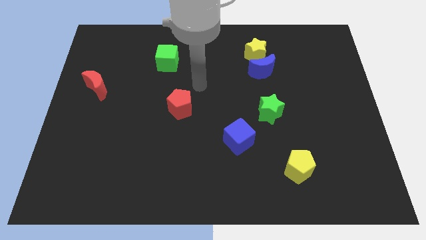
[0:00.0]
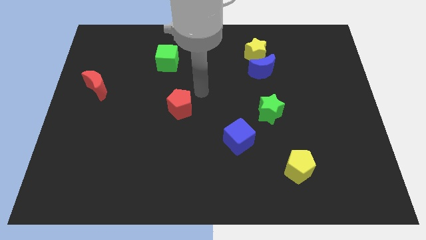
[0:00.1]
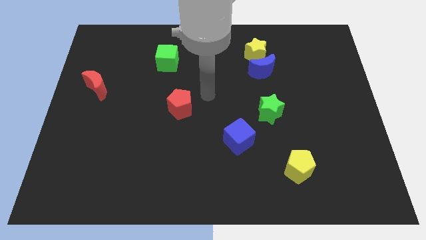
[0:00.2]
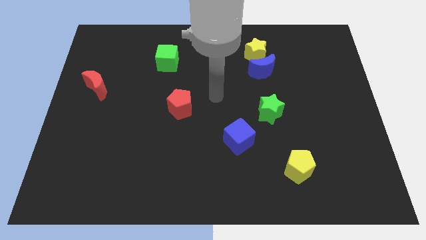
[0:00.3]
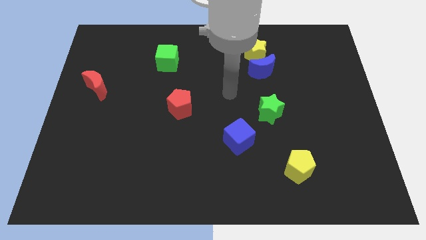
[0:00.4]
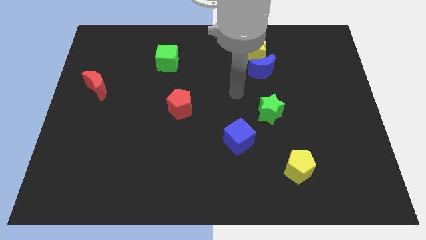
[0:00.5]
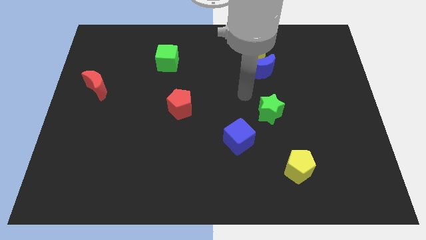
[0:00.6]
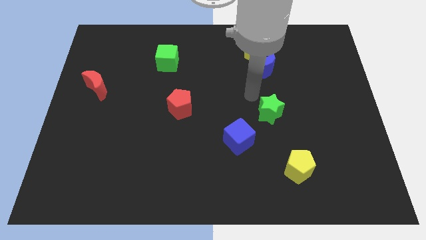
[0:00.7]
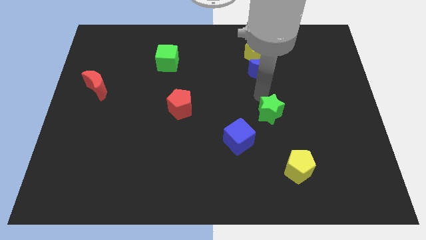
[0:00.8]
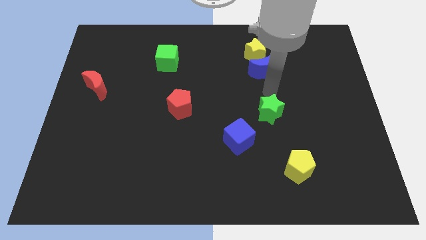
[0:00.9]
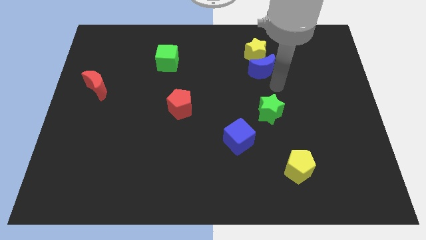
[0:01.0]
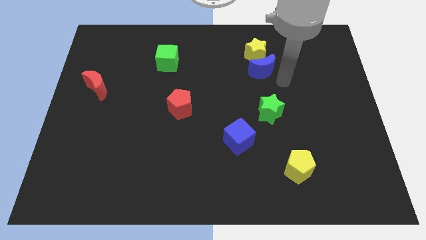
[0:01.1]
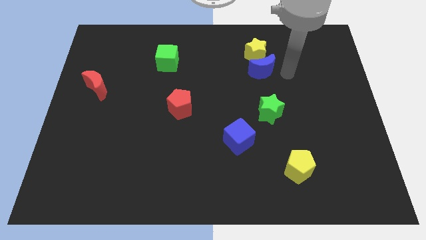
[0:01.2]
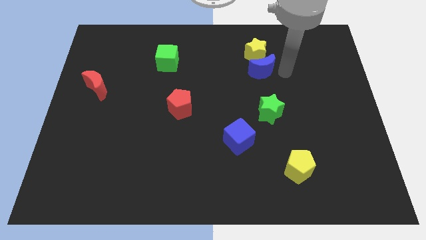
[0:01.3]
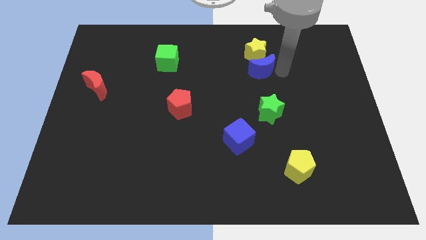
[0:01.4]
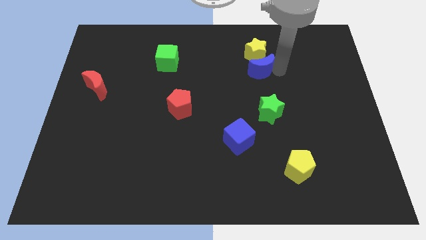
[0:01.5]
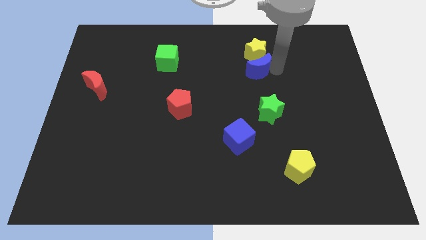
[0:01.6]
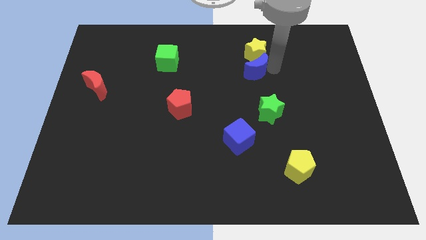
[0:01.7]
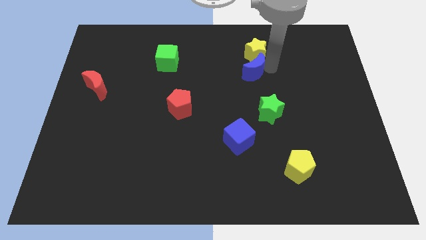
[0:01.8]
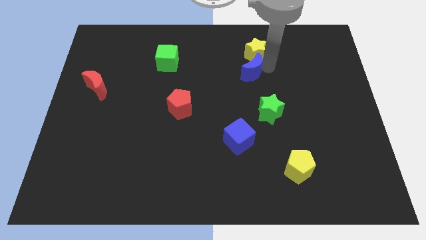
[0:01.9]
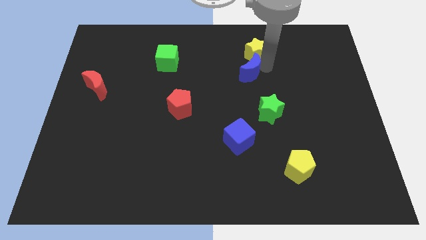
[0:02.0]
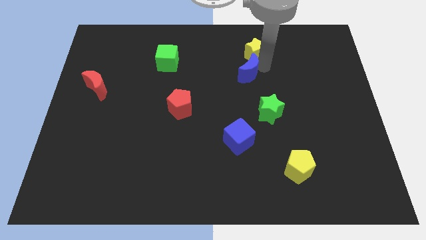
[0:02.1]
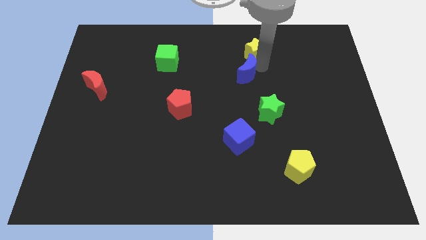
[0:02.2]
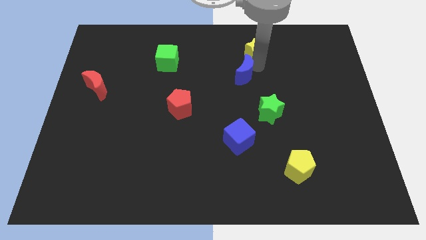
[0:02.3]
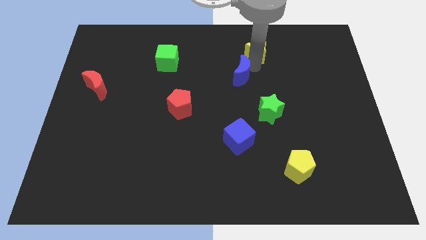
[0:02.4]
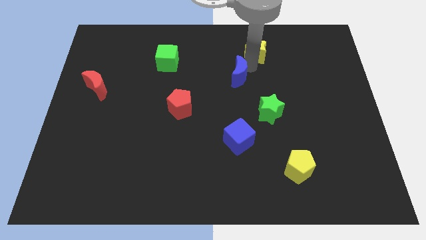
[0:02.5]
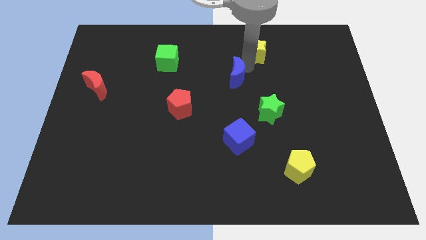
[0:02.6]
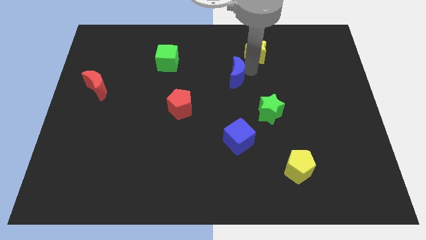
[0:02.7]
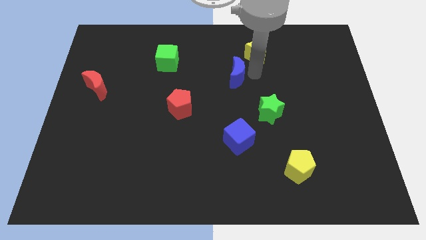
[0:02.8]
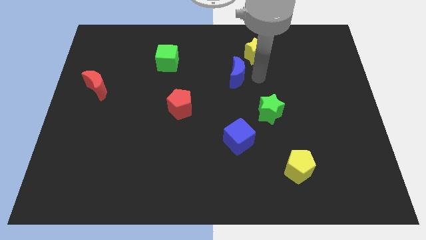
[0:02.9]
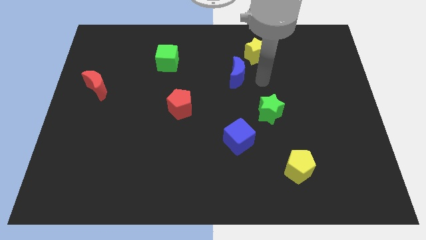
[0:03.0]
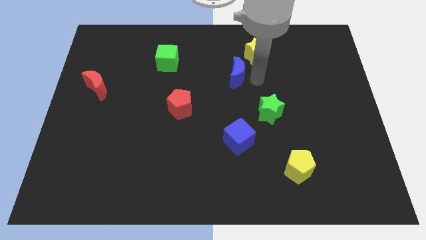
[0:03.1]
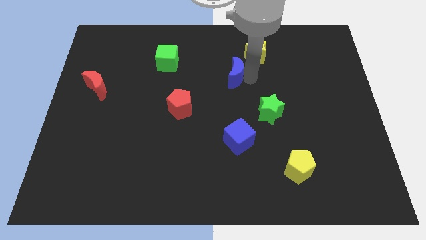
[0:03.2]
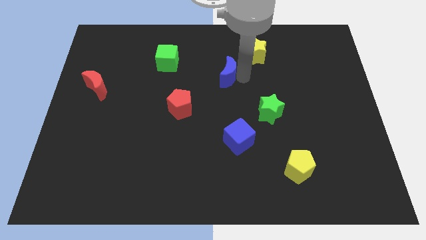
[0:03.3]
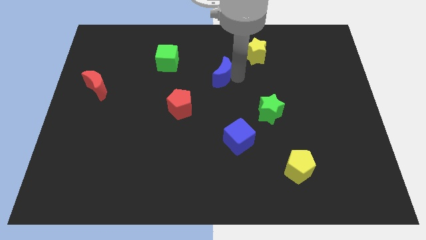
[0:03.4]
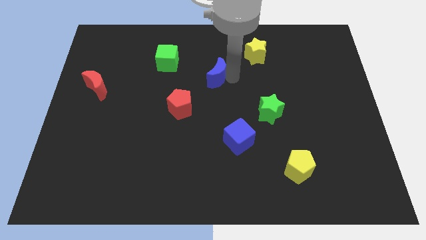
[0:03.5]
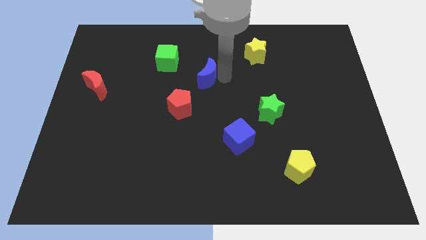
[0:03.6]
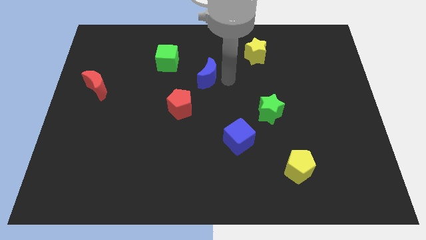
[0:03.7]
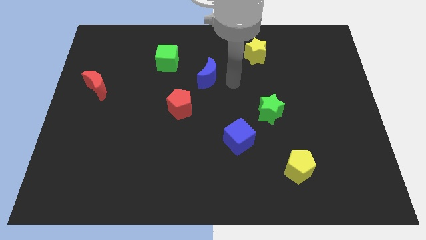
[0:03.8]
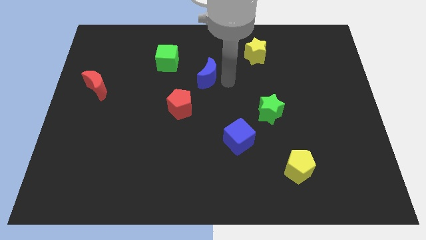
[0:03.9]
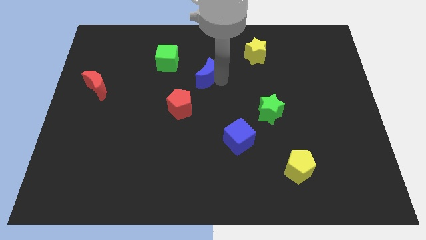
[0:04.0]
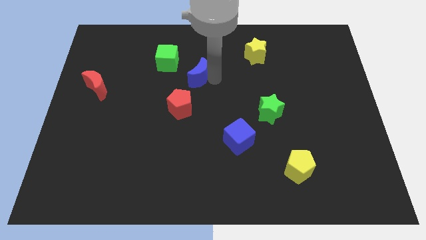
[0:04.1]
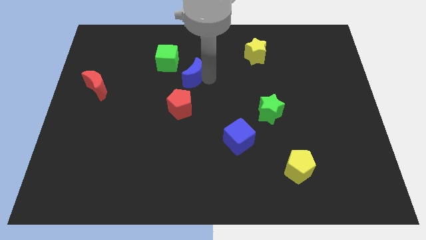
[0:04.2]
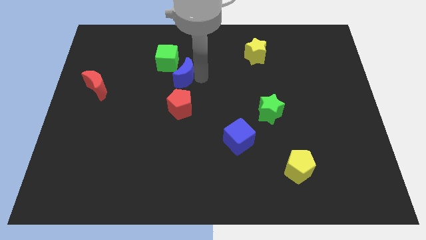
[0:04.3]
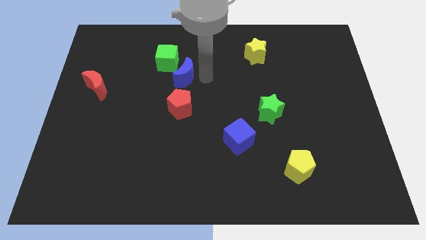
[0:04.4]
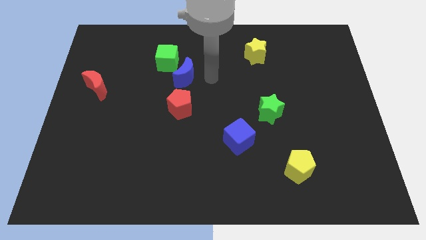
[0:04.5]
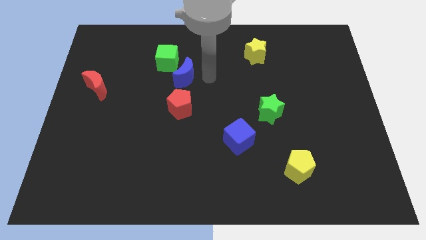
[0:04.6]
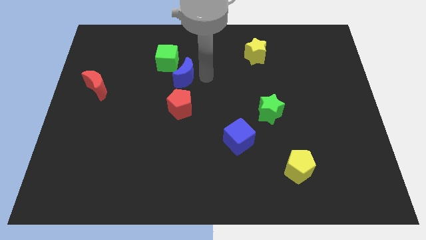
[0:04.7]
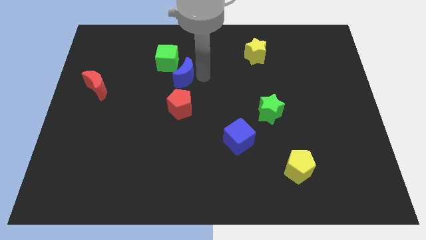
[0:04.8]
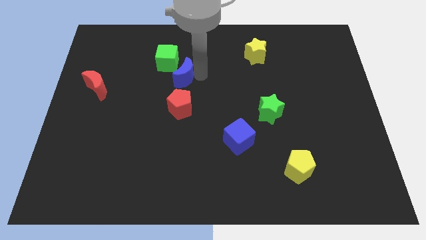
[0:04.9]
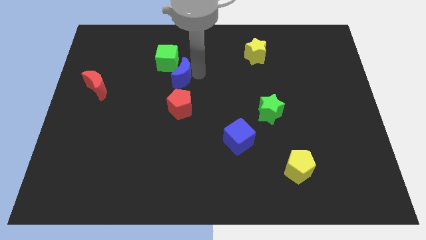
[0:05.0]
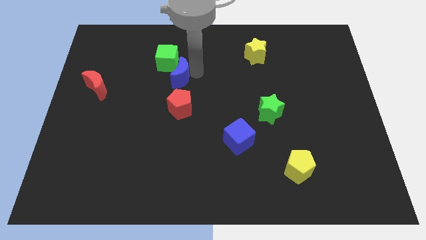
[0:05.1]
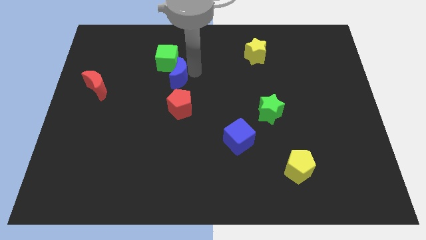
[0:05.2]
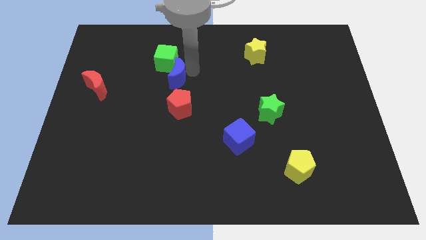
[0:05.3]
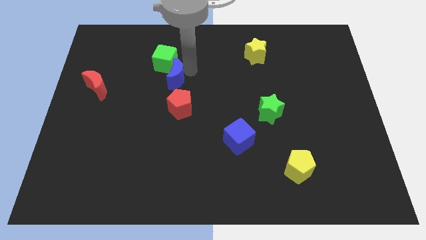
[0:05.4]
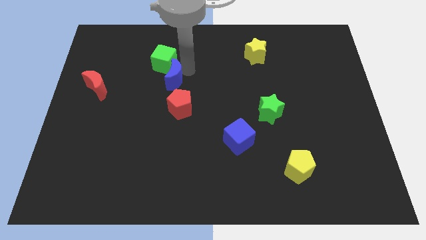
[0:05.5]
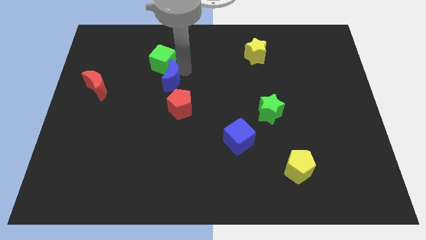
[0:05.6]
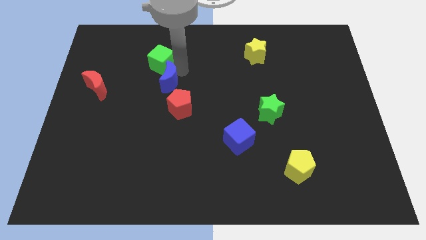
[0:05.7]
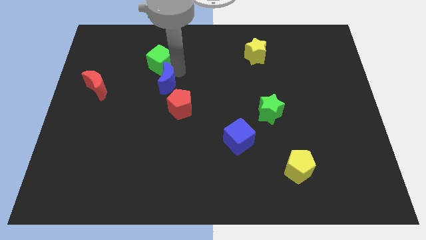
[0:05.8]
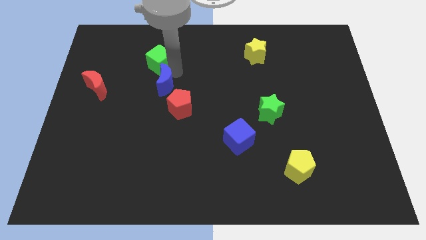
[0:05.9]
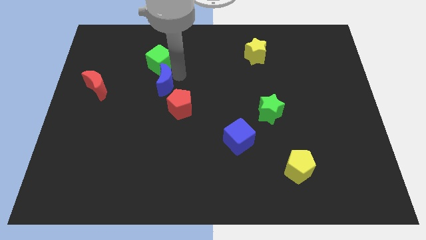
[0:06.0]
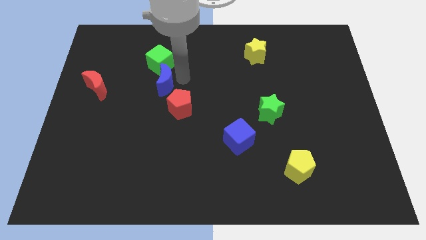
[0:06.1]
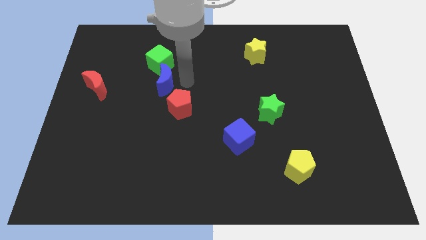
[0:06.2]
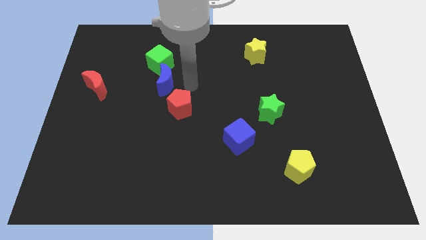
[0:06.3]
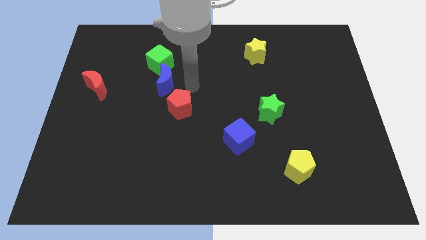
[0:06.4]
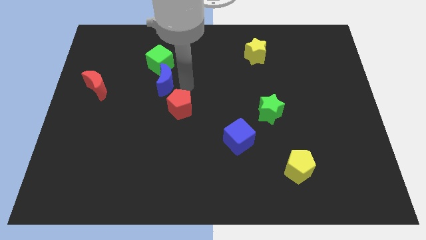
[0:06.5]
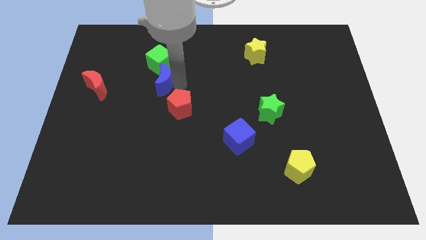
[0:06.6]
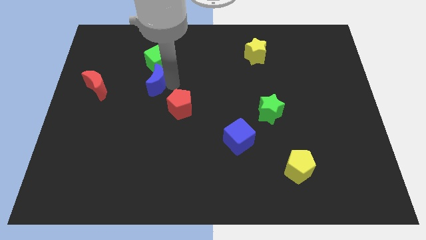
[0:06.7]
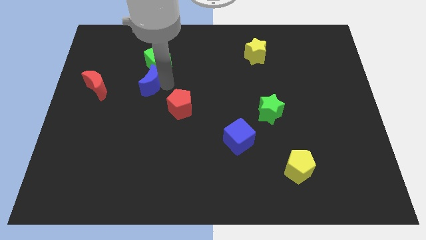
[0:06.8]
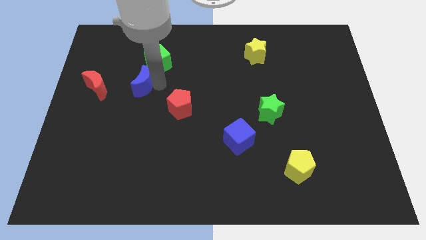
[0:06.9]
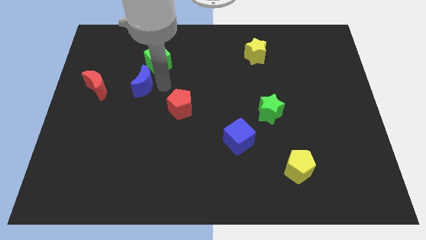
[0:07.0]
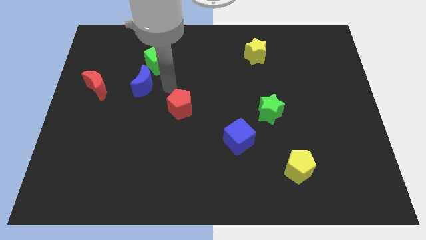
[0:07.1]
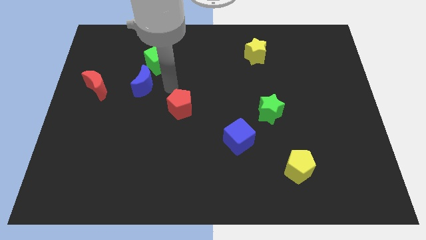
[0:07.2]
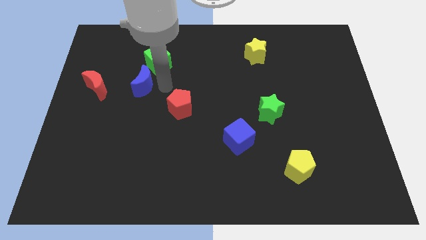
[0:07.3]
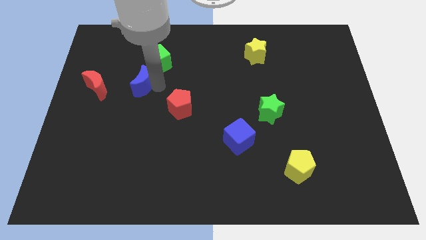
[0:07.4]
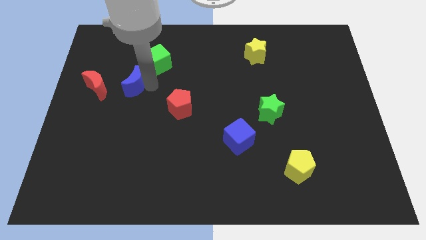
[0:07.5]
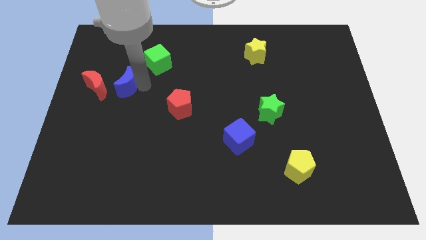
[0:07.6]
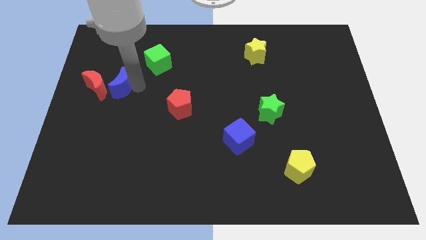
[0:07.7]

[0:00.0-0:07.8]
push the blue moon towards the red moon
